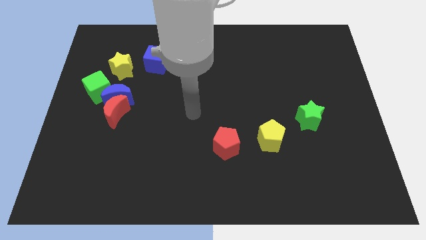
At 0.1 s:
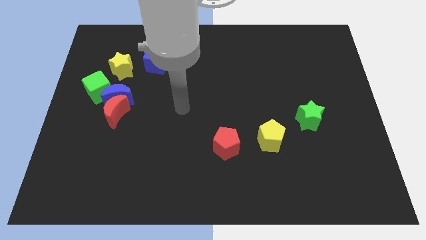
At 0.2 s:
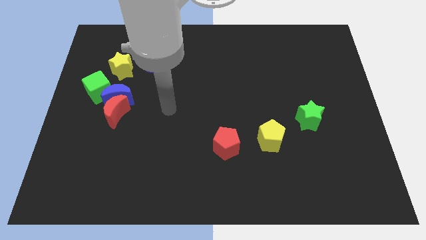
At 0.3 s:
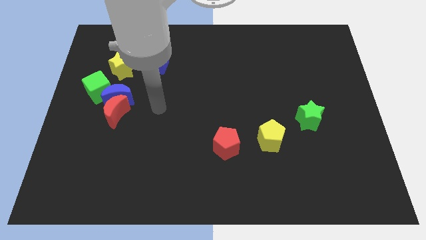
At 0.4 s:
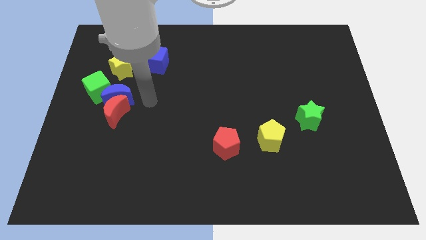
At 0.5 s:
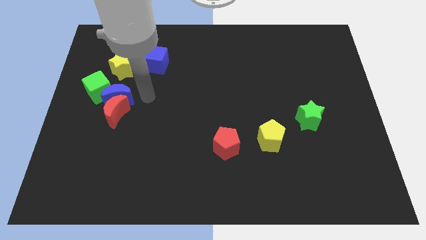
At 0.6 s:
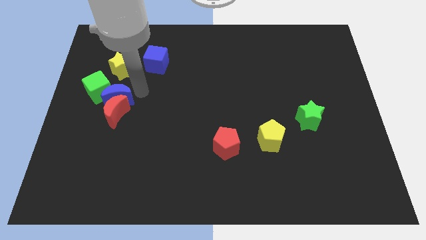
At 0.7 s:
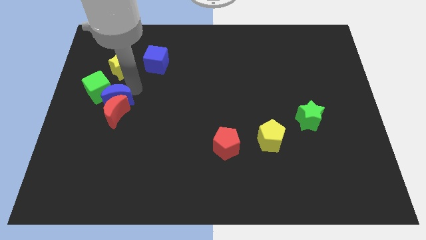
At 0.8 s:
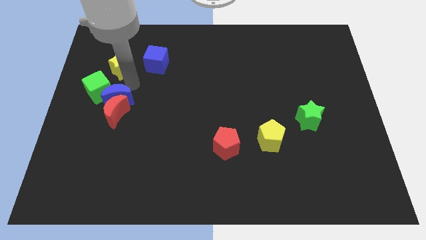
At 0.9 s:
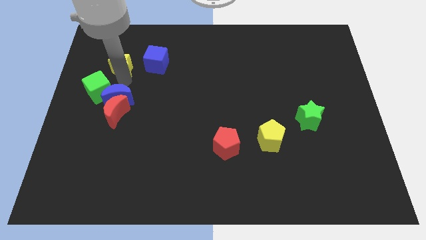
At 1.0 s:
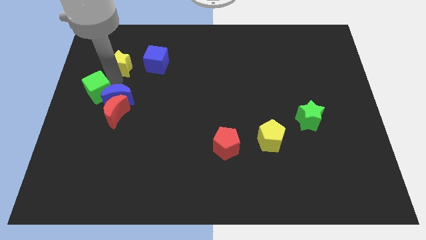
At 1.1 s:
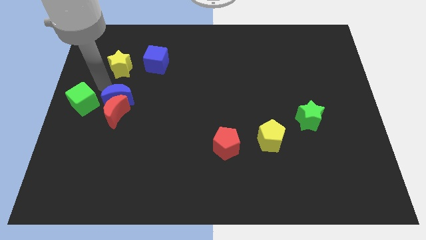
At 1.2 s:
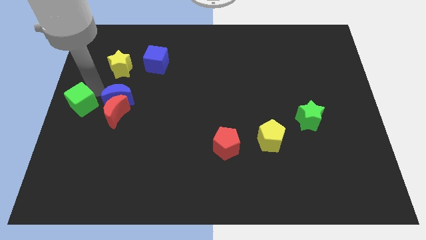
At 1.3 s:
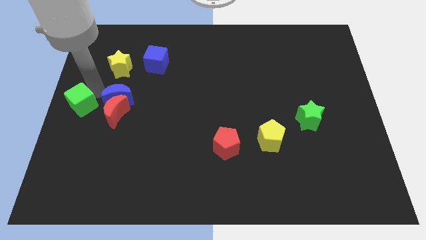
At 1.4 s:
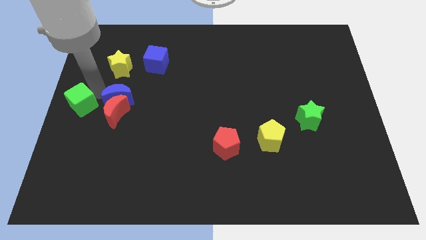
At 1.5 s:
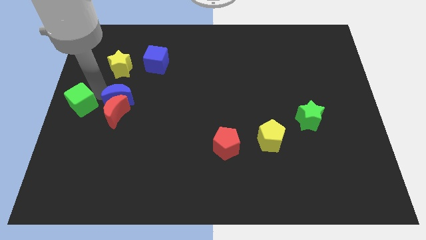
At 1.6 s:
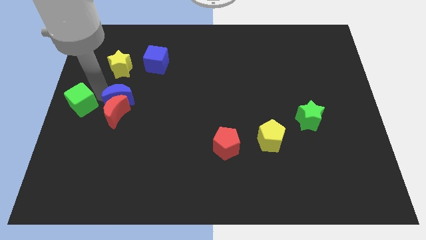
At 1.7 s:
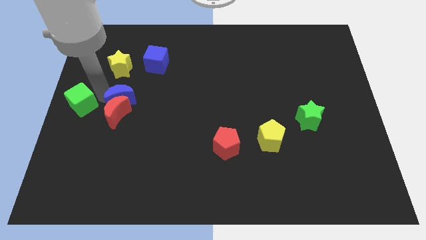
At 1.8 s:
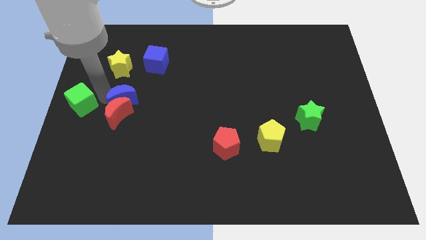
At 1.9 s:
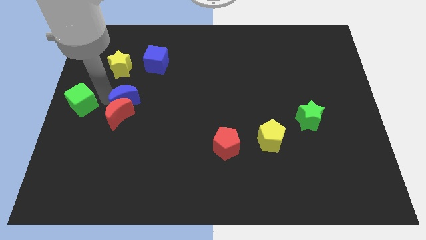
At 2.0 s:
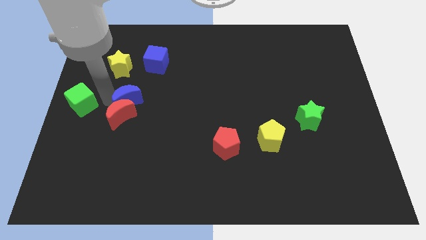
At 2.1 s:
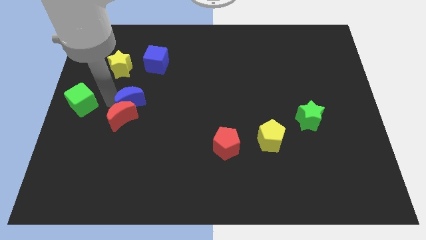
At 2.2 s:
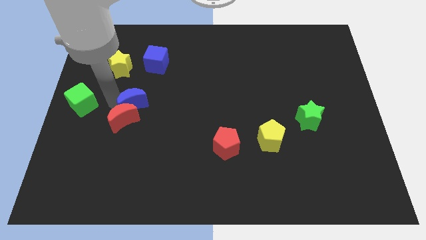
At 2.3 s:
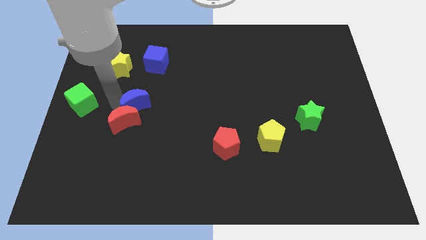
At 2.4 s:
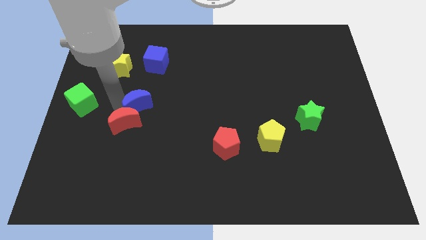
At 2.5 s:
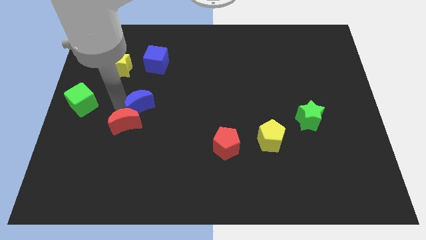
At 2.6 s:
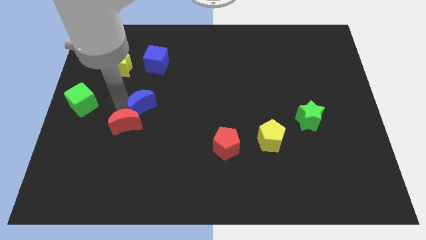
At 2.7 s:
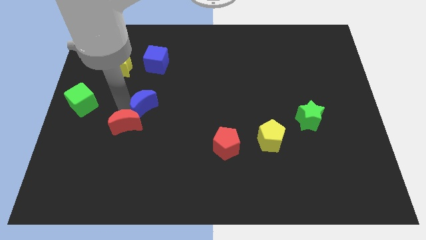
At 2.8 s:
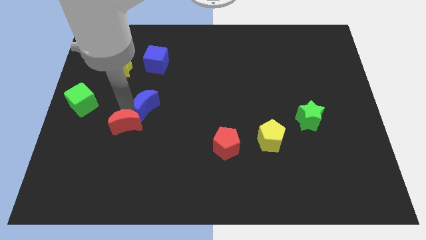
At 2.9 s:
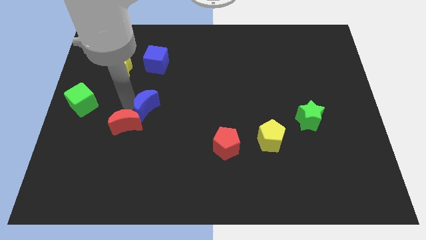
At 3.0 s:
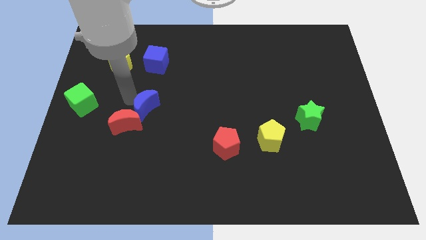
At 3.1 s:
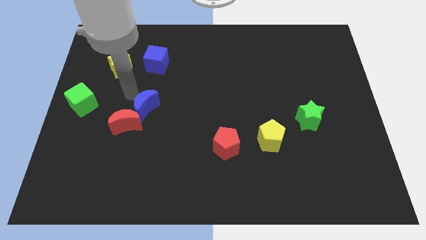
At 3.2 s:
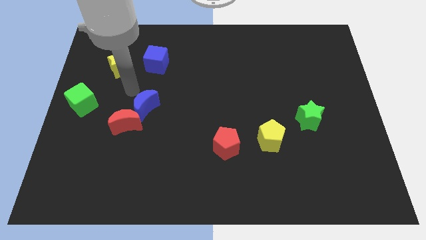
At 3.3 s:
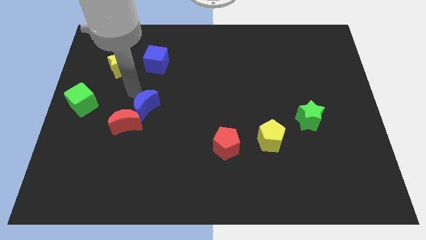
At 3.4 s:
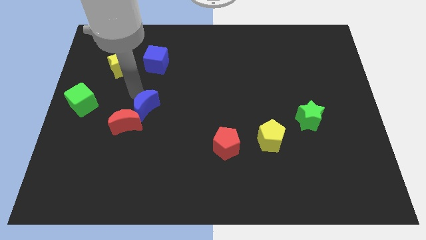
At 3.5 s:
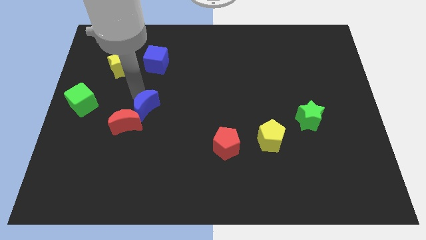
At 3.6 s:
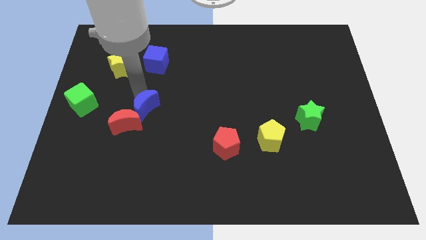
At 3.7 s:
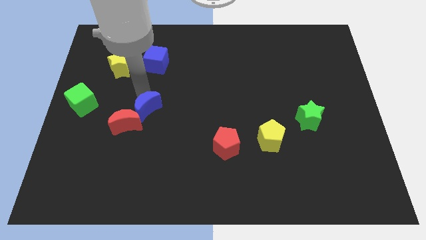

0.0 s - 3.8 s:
slightly slide the blue moon downwards and right

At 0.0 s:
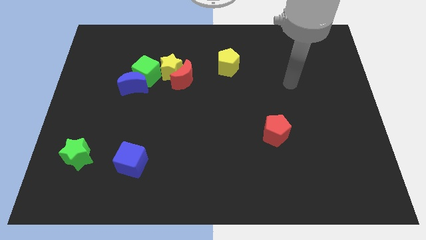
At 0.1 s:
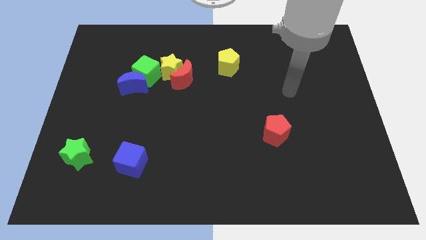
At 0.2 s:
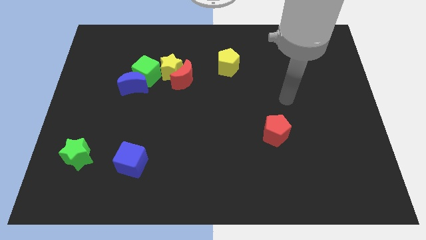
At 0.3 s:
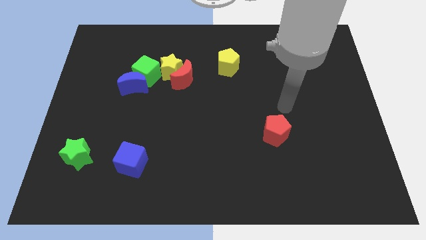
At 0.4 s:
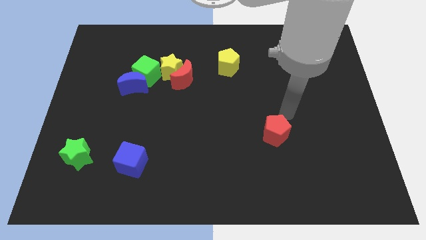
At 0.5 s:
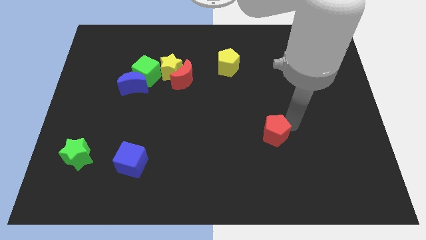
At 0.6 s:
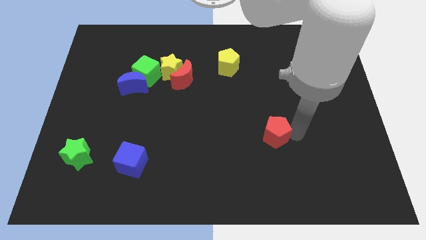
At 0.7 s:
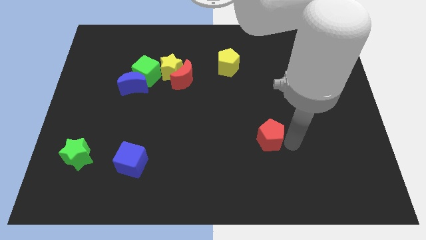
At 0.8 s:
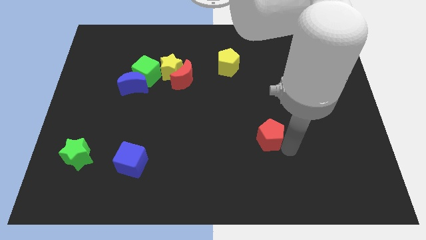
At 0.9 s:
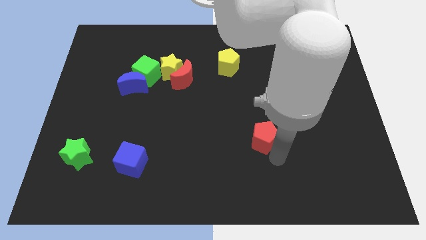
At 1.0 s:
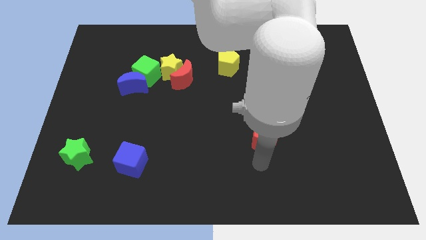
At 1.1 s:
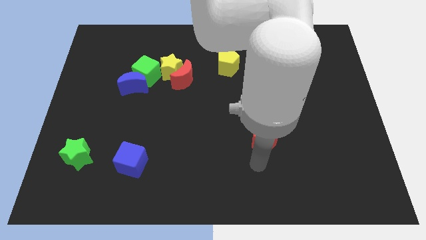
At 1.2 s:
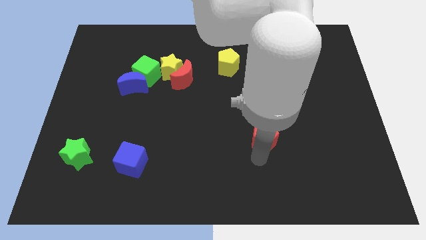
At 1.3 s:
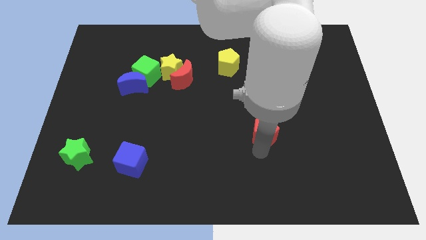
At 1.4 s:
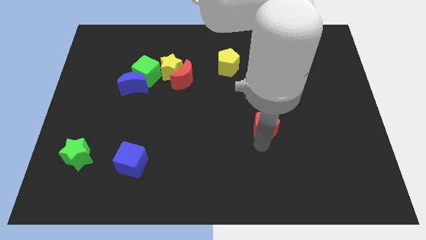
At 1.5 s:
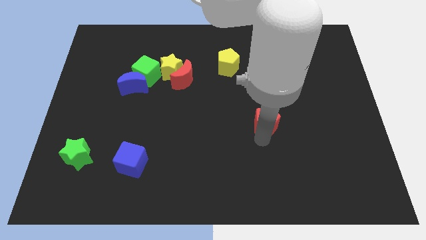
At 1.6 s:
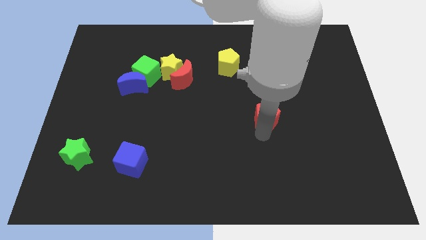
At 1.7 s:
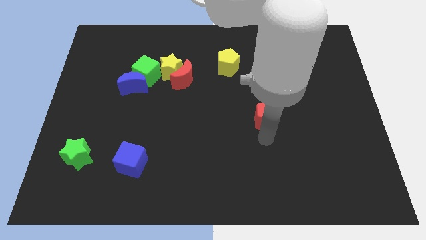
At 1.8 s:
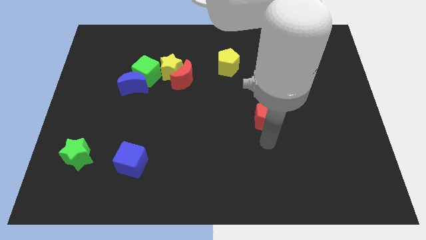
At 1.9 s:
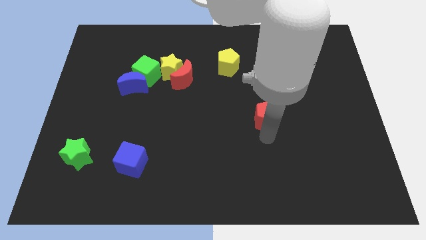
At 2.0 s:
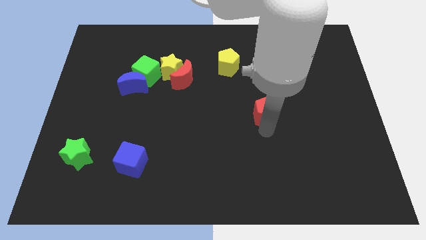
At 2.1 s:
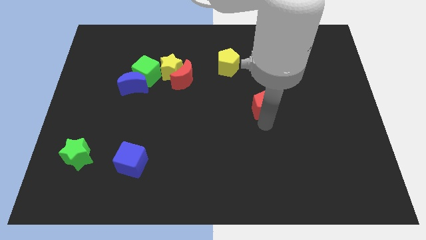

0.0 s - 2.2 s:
slightly slide the red pentagon upwards

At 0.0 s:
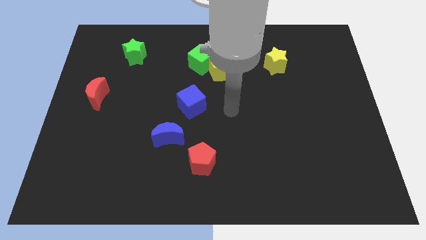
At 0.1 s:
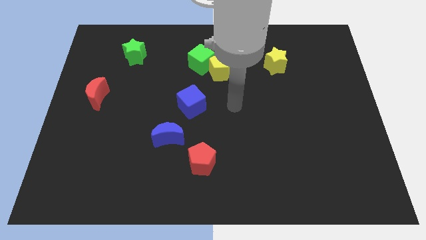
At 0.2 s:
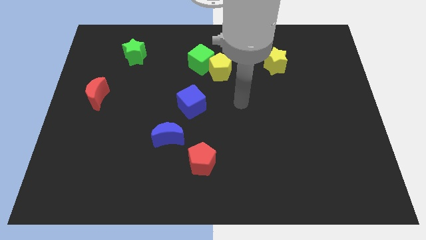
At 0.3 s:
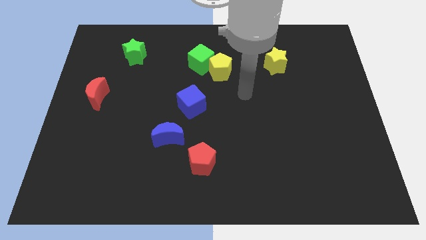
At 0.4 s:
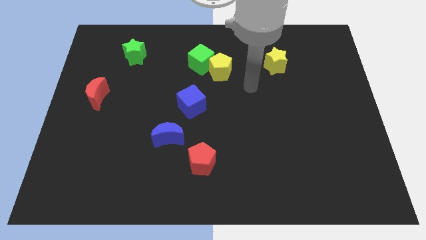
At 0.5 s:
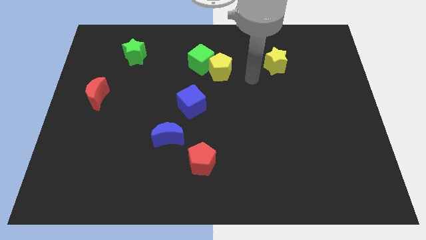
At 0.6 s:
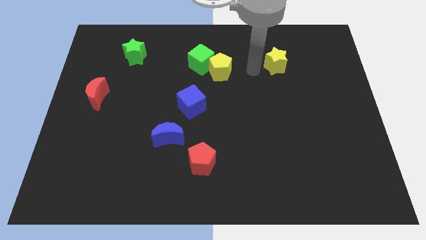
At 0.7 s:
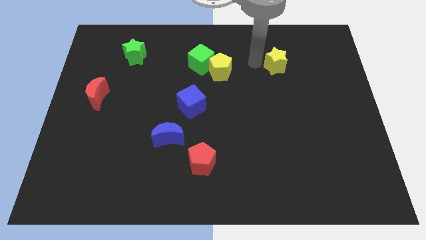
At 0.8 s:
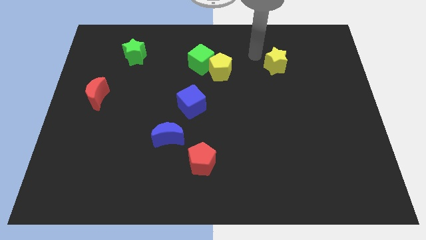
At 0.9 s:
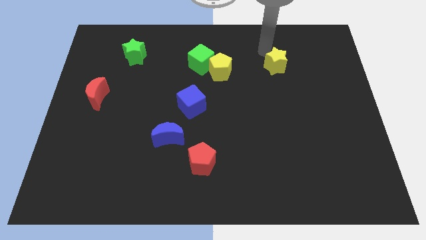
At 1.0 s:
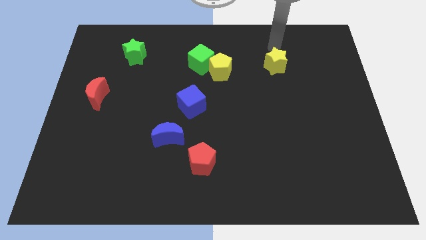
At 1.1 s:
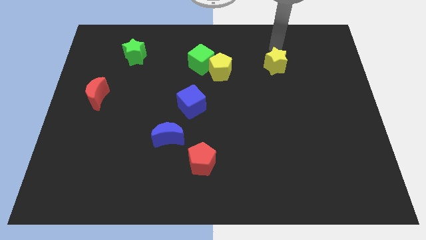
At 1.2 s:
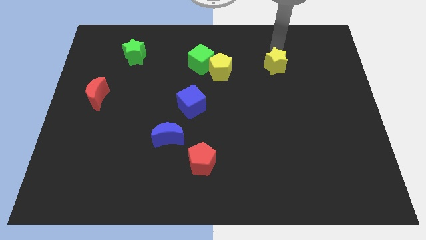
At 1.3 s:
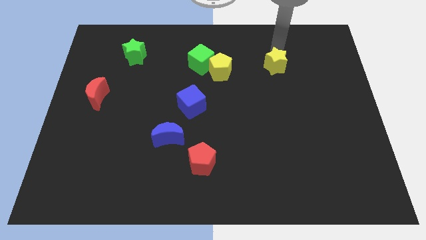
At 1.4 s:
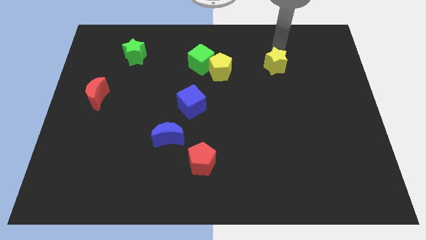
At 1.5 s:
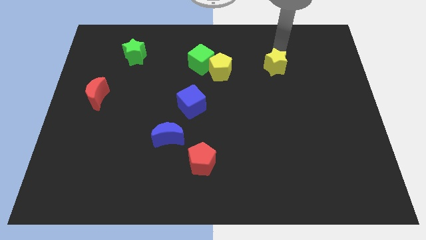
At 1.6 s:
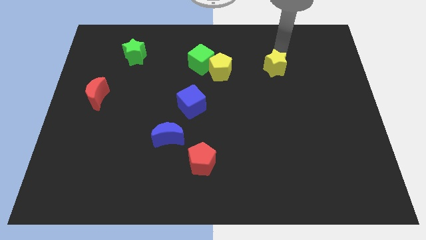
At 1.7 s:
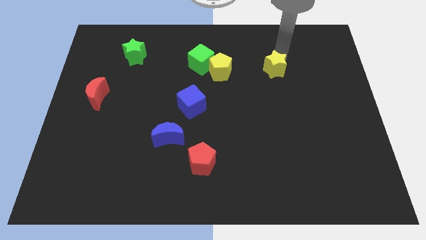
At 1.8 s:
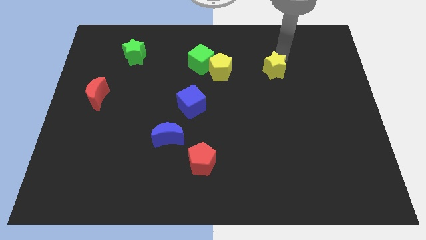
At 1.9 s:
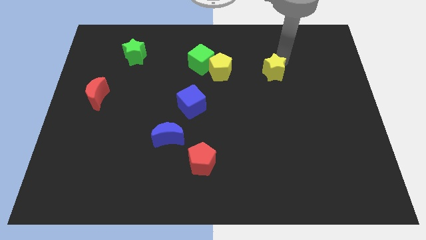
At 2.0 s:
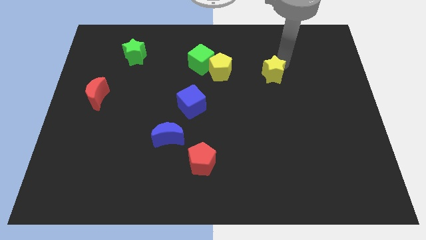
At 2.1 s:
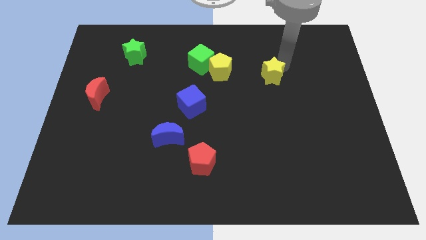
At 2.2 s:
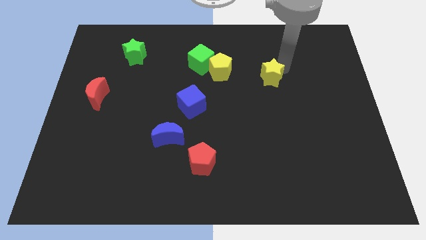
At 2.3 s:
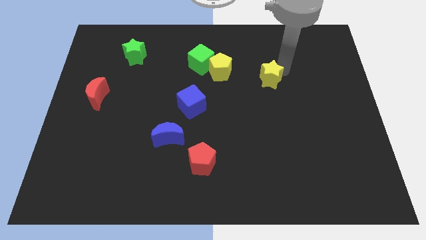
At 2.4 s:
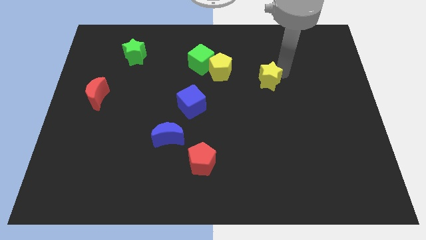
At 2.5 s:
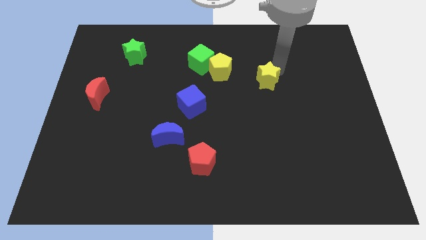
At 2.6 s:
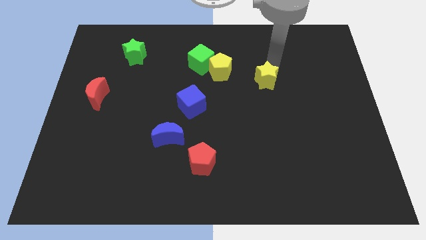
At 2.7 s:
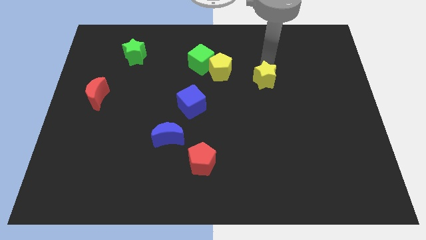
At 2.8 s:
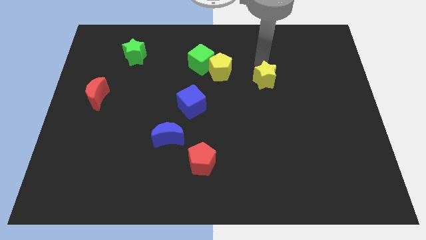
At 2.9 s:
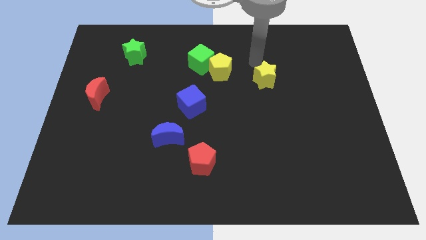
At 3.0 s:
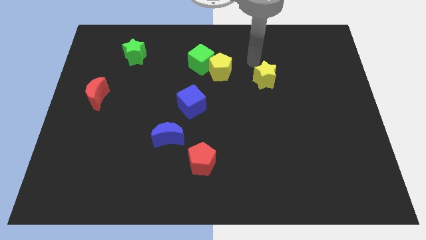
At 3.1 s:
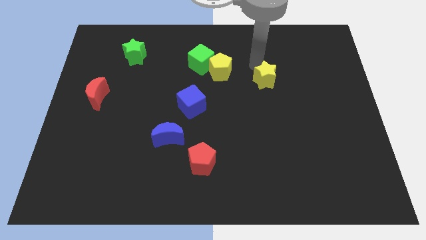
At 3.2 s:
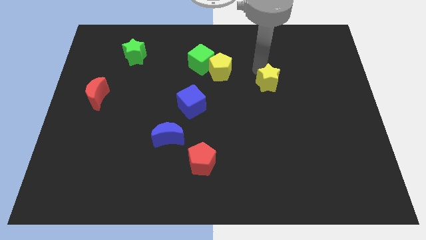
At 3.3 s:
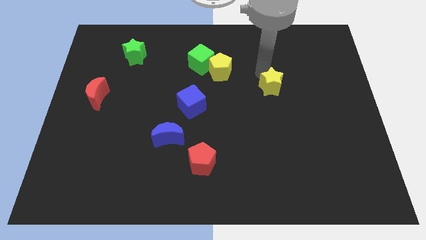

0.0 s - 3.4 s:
slightly slide the yellow star downwards
